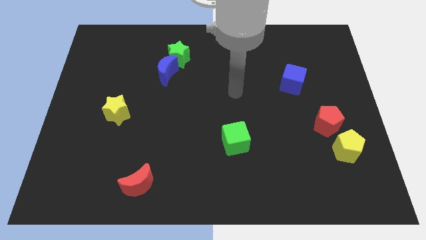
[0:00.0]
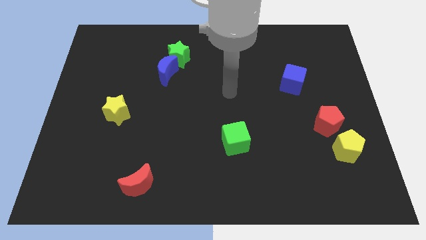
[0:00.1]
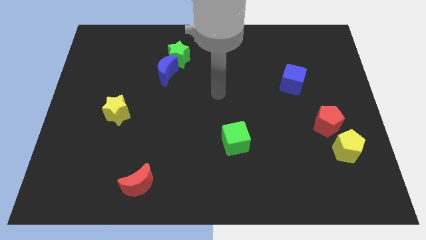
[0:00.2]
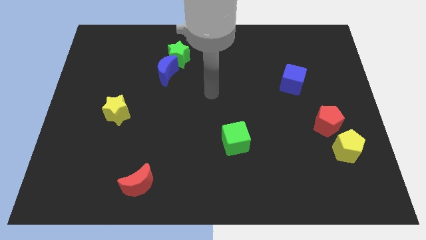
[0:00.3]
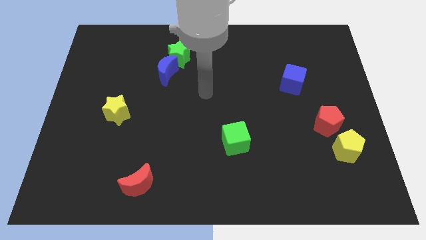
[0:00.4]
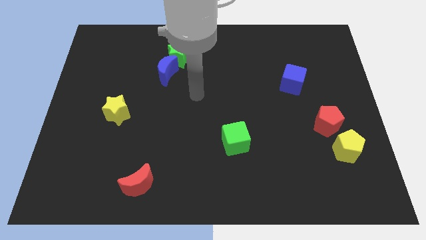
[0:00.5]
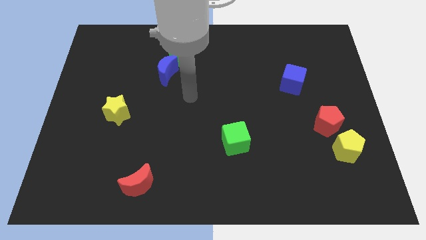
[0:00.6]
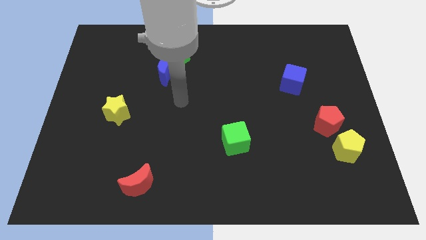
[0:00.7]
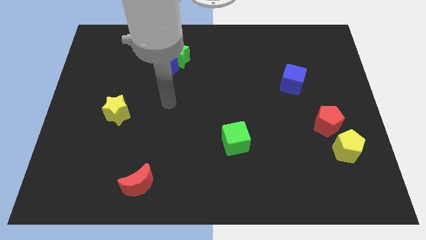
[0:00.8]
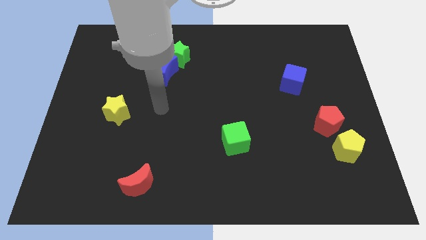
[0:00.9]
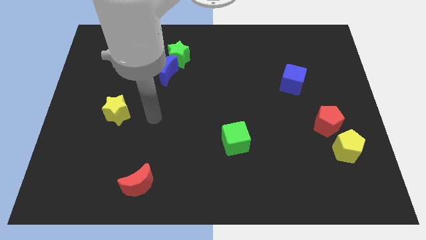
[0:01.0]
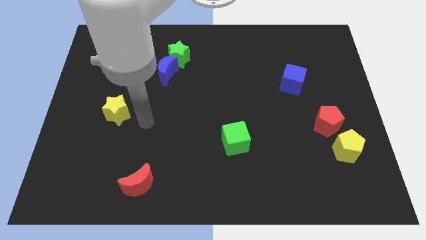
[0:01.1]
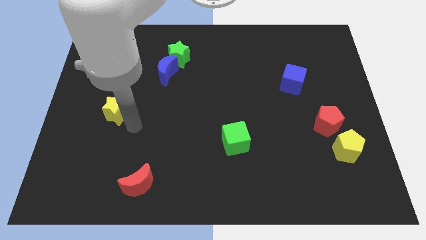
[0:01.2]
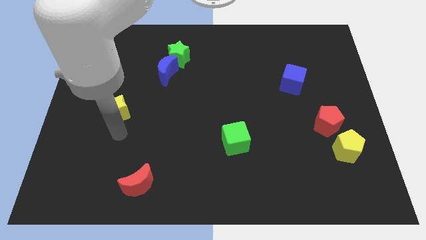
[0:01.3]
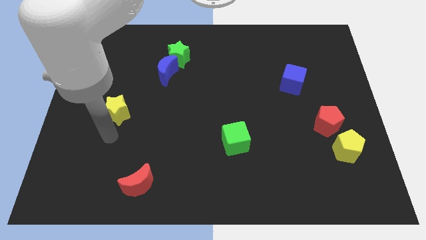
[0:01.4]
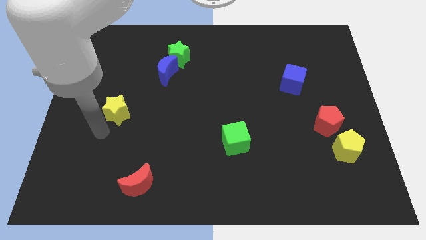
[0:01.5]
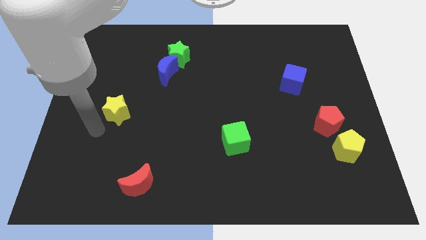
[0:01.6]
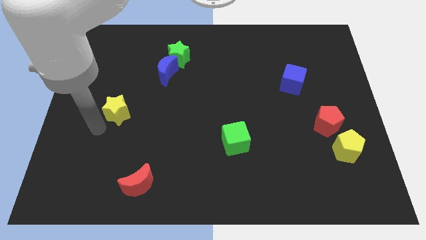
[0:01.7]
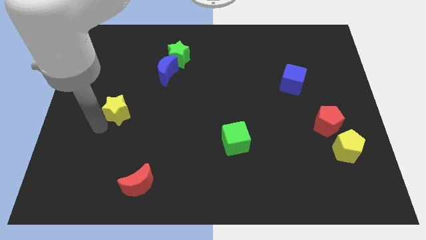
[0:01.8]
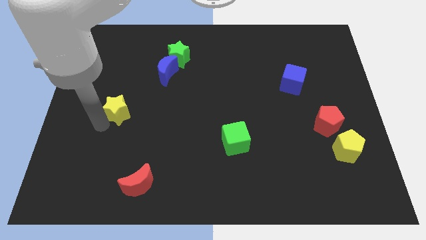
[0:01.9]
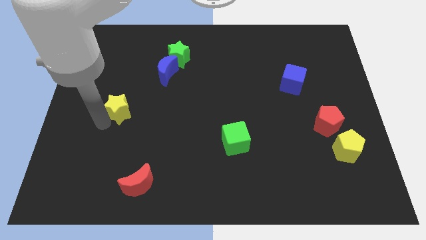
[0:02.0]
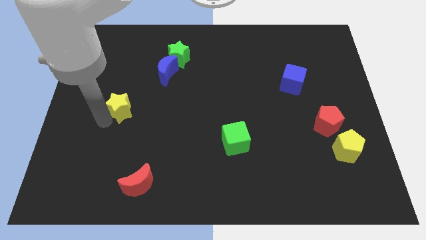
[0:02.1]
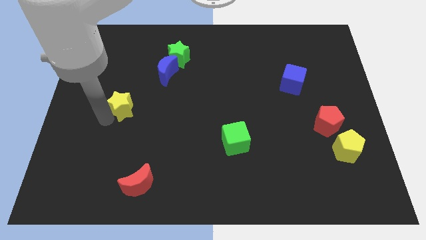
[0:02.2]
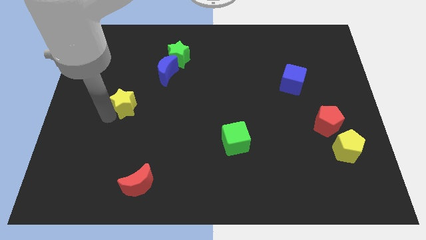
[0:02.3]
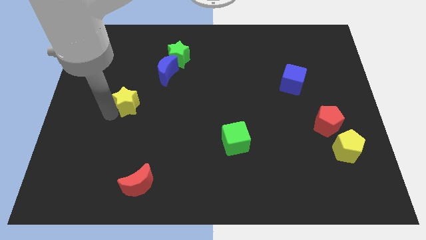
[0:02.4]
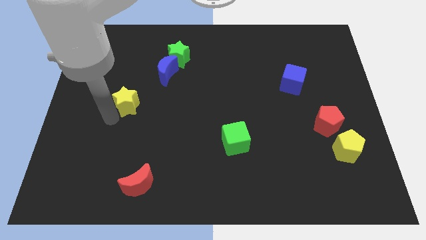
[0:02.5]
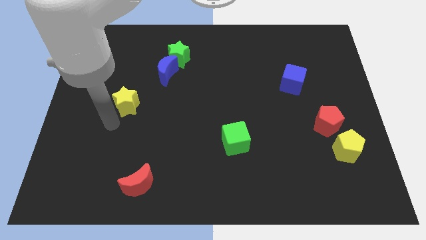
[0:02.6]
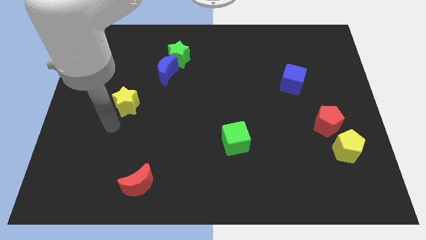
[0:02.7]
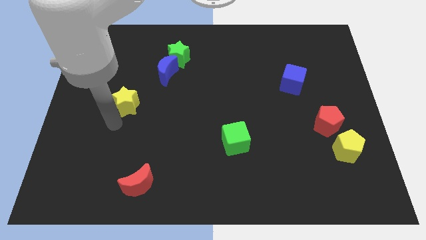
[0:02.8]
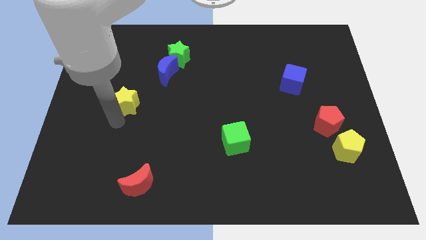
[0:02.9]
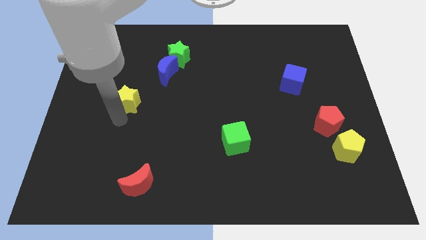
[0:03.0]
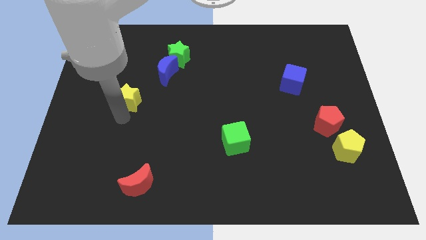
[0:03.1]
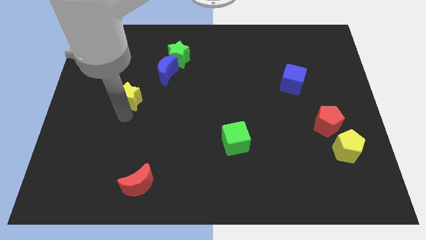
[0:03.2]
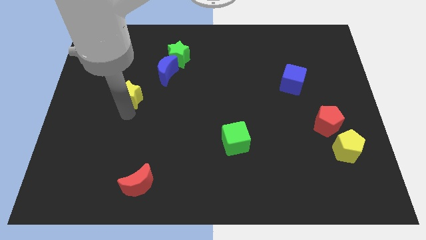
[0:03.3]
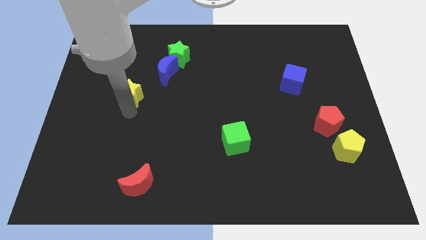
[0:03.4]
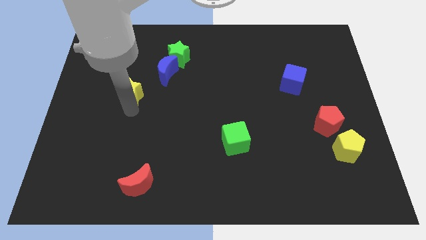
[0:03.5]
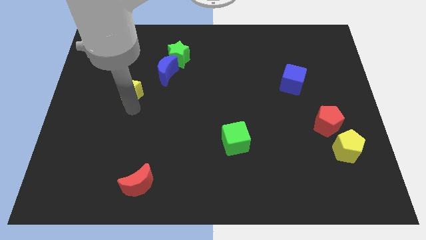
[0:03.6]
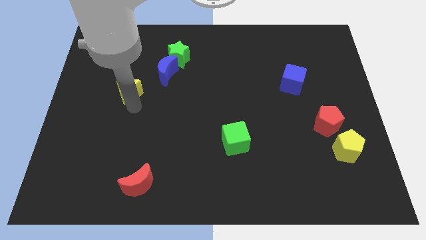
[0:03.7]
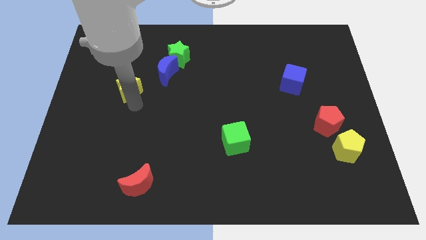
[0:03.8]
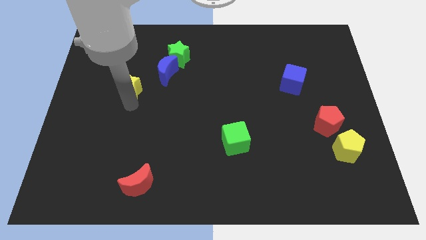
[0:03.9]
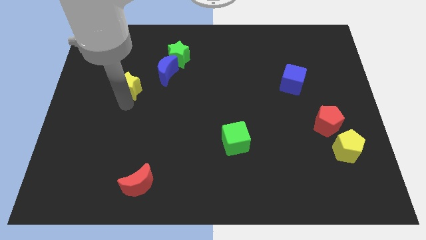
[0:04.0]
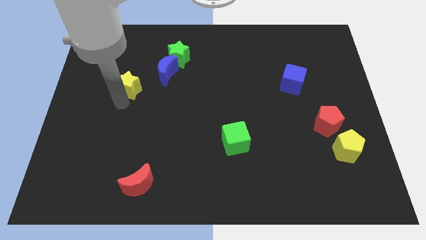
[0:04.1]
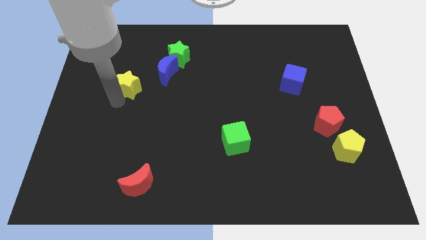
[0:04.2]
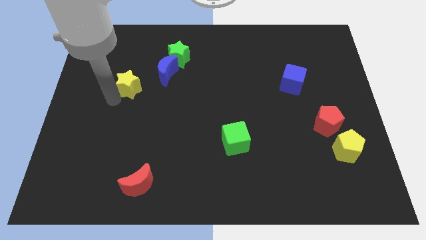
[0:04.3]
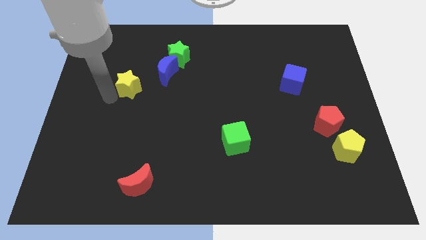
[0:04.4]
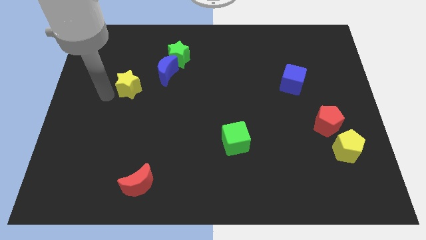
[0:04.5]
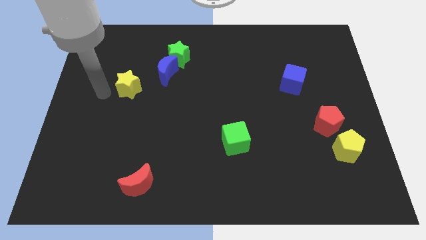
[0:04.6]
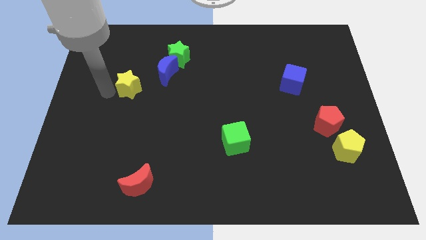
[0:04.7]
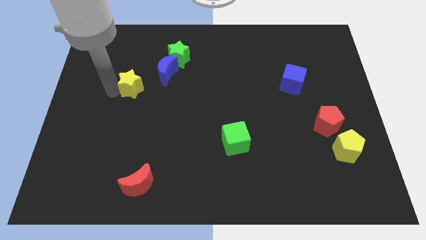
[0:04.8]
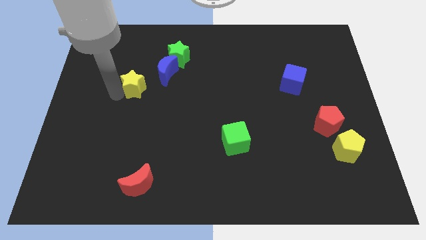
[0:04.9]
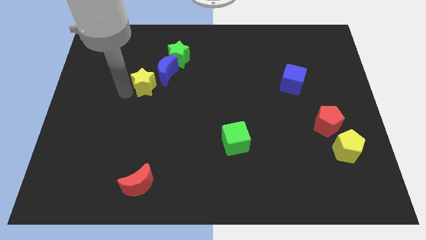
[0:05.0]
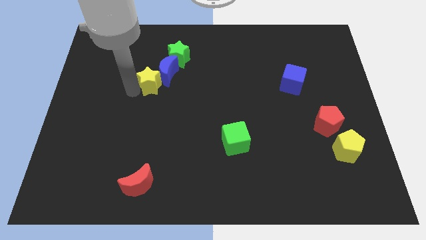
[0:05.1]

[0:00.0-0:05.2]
slide the yellow star towards the blue moon

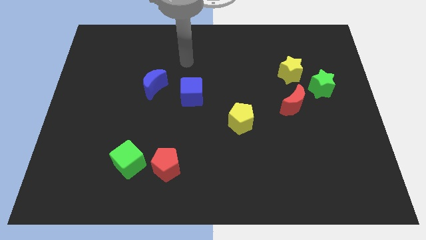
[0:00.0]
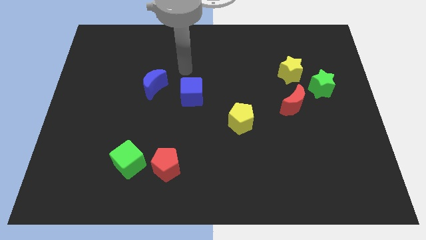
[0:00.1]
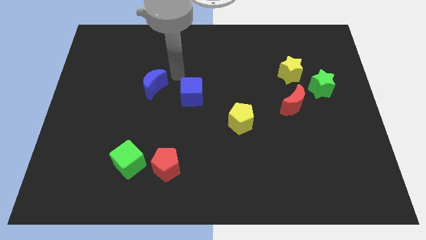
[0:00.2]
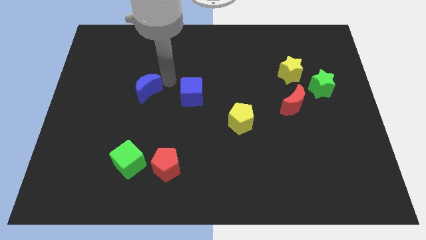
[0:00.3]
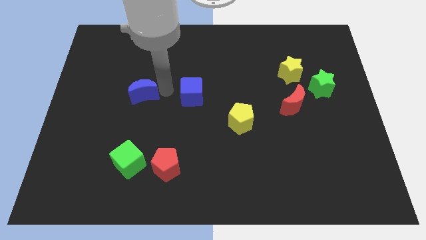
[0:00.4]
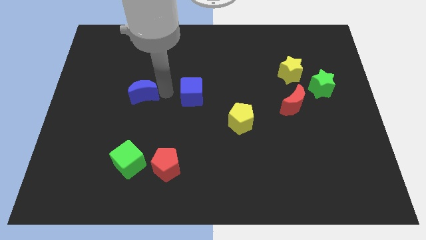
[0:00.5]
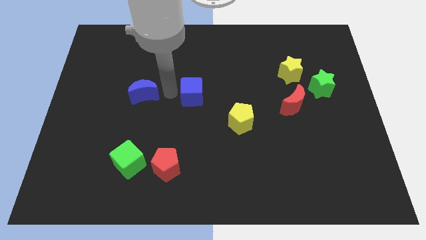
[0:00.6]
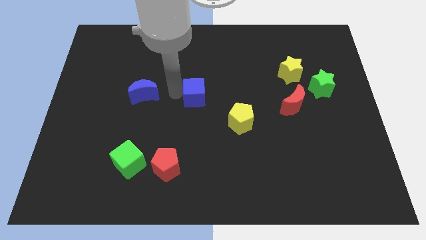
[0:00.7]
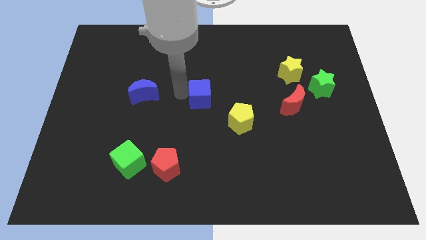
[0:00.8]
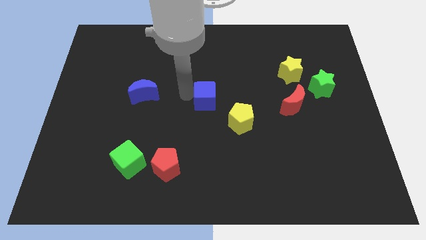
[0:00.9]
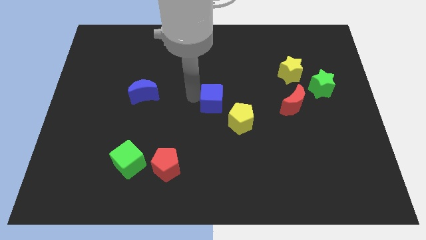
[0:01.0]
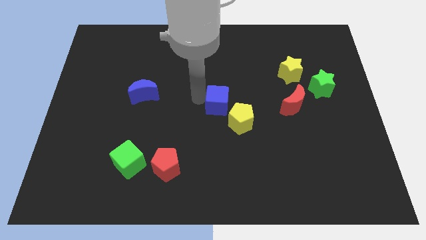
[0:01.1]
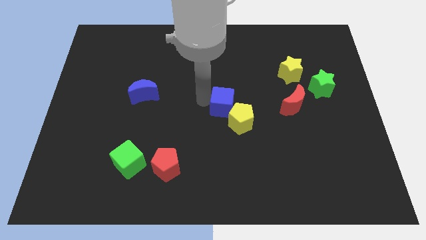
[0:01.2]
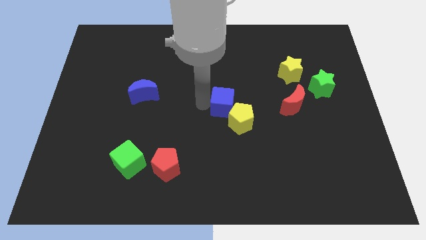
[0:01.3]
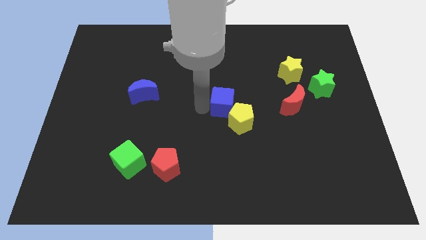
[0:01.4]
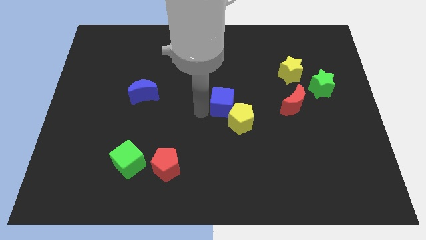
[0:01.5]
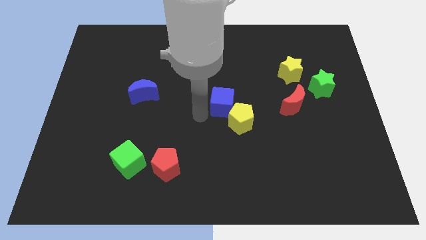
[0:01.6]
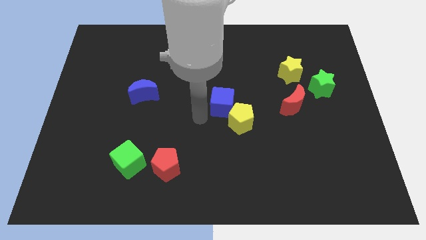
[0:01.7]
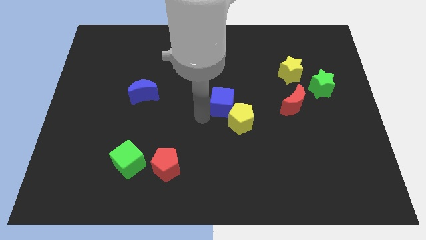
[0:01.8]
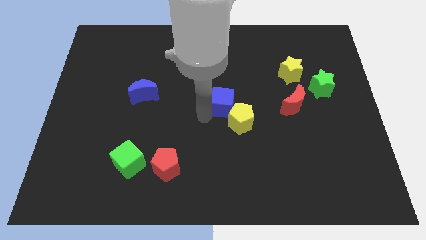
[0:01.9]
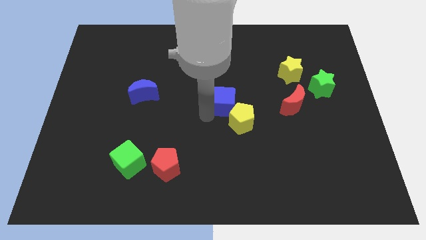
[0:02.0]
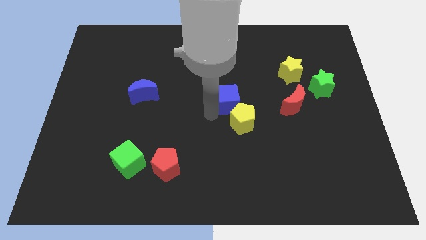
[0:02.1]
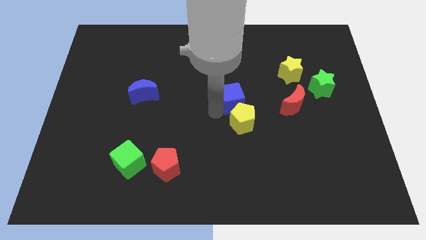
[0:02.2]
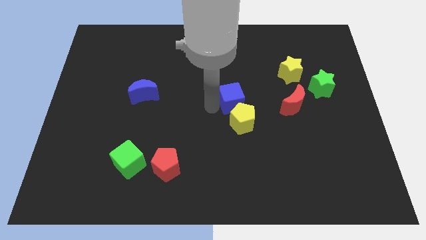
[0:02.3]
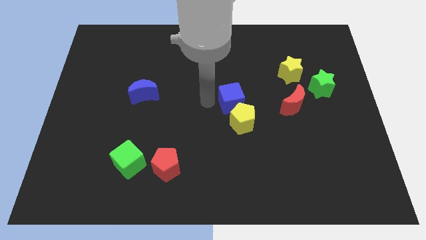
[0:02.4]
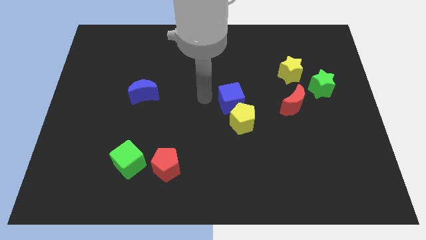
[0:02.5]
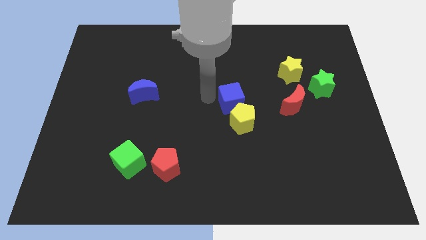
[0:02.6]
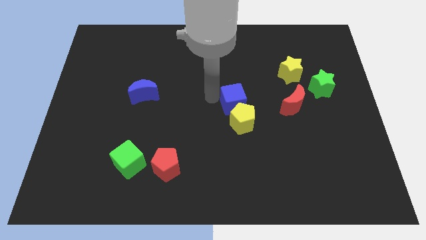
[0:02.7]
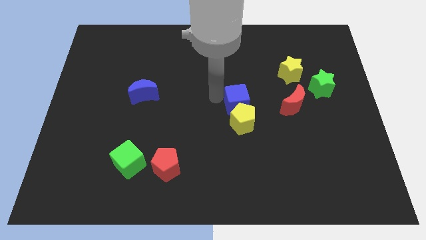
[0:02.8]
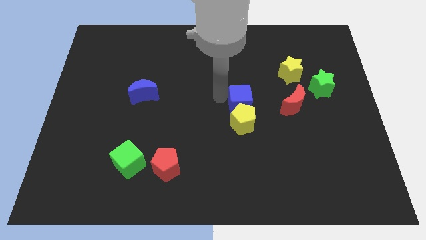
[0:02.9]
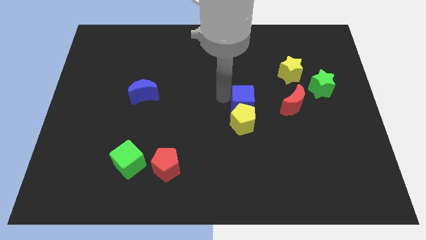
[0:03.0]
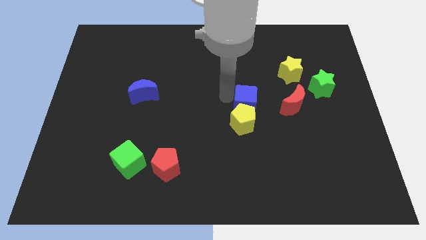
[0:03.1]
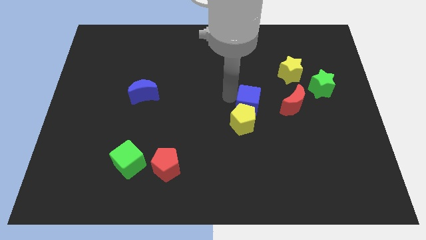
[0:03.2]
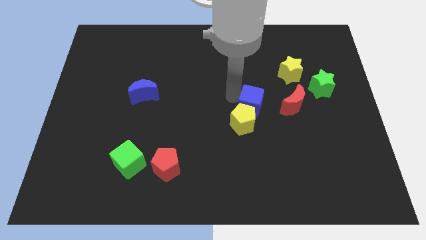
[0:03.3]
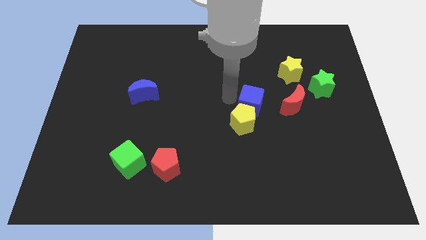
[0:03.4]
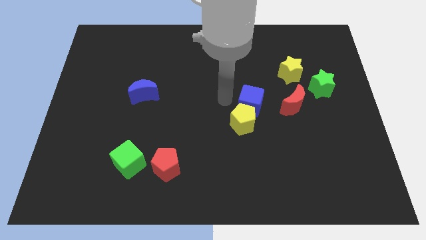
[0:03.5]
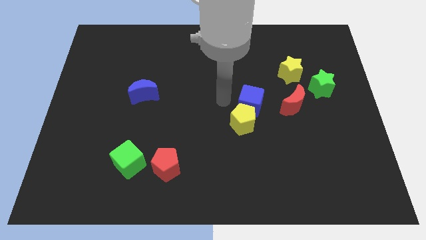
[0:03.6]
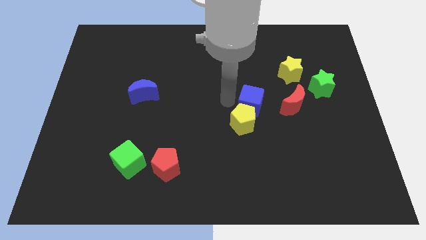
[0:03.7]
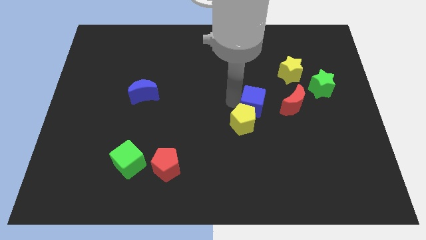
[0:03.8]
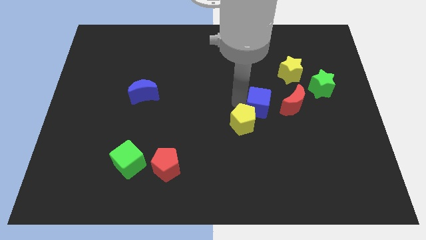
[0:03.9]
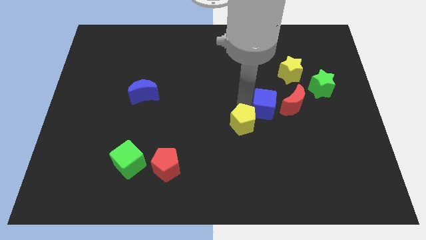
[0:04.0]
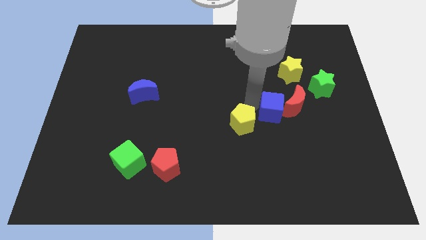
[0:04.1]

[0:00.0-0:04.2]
push the blue cube to the red moon
